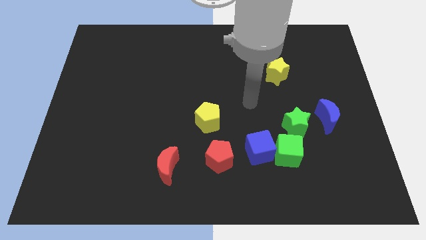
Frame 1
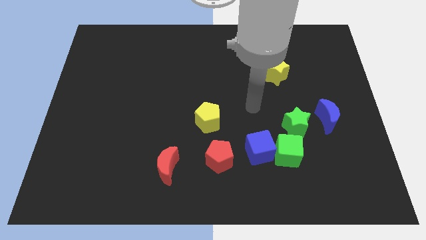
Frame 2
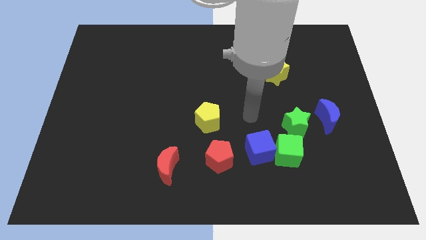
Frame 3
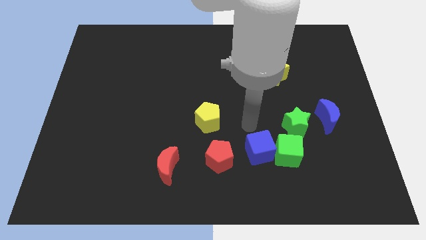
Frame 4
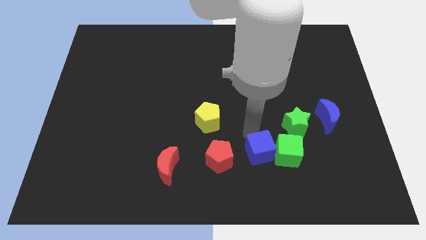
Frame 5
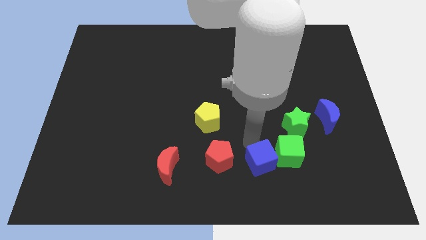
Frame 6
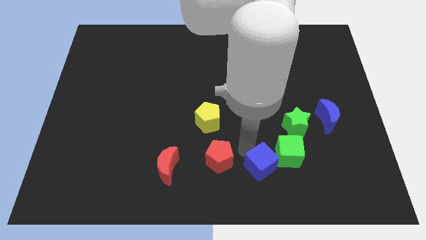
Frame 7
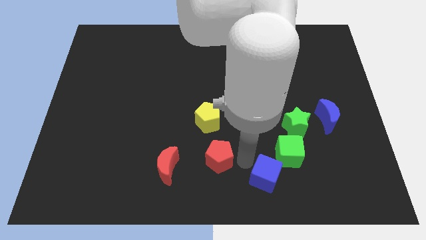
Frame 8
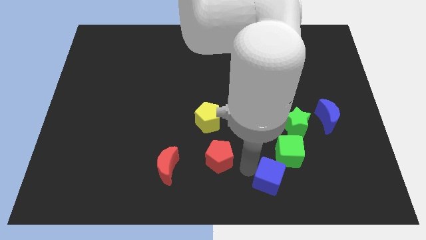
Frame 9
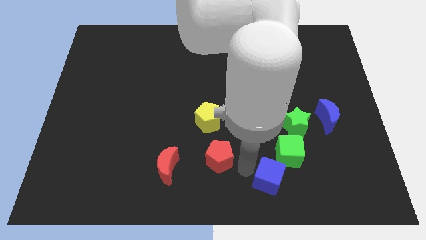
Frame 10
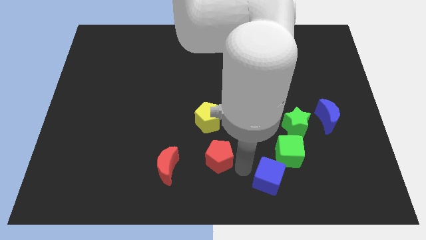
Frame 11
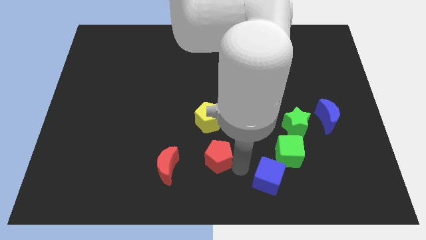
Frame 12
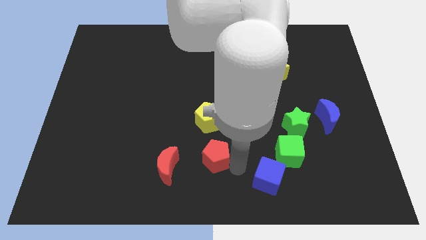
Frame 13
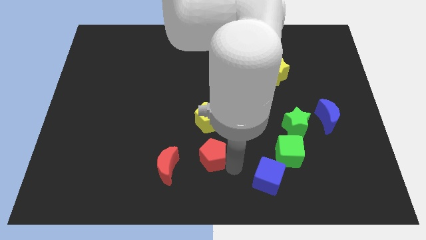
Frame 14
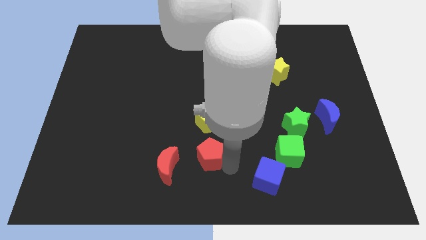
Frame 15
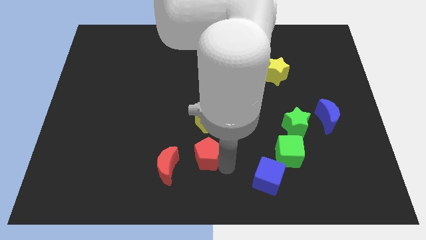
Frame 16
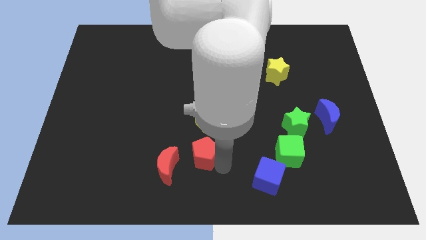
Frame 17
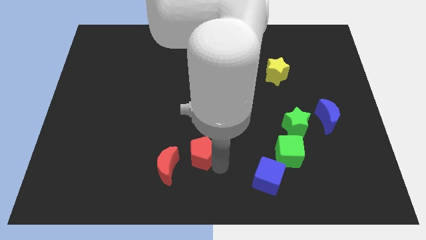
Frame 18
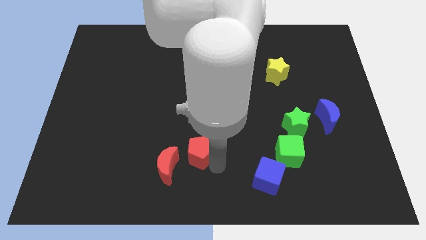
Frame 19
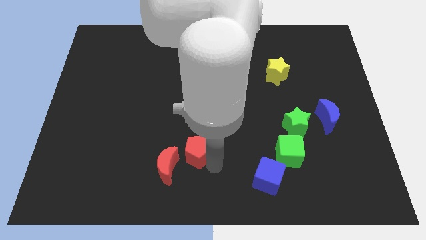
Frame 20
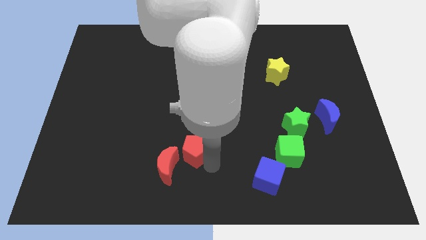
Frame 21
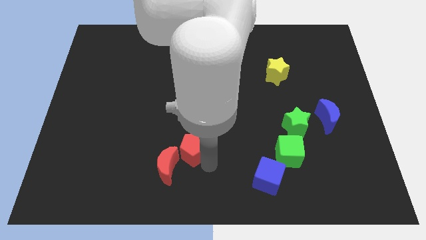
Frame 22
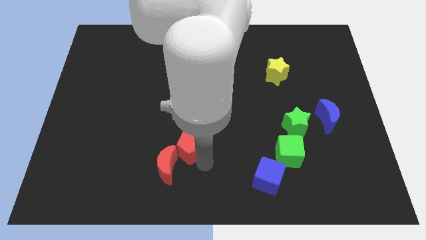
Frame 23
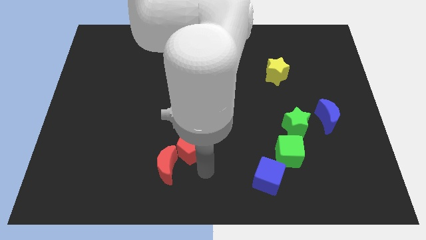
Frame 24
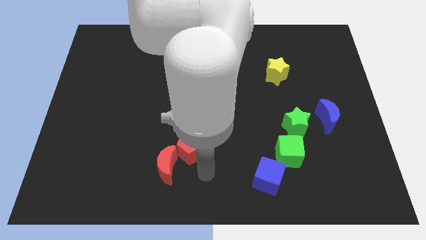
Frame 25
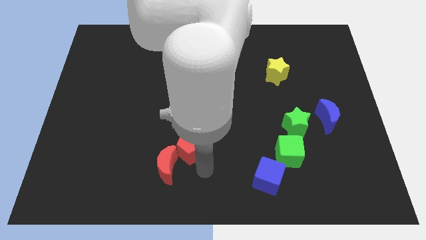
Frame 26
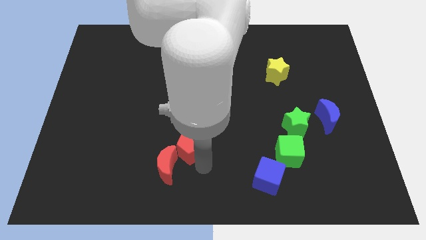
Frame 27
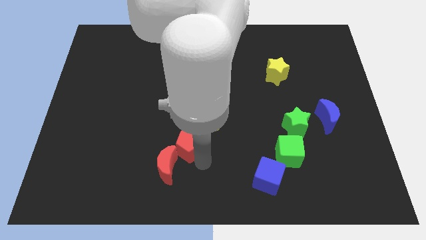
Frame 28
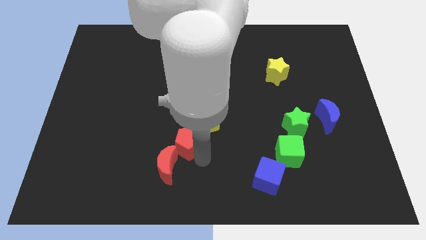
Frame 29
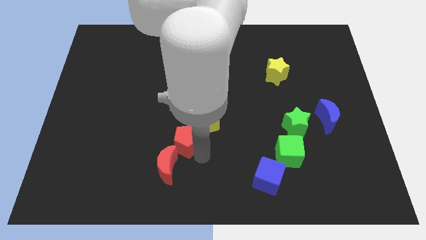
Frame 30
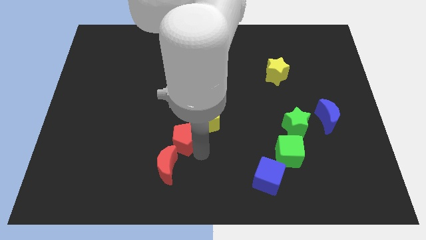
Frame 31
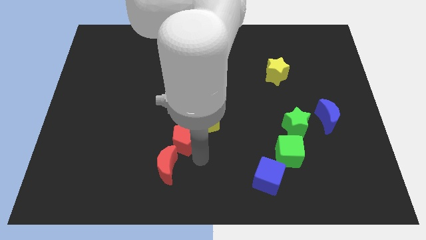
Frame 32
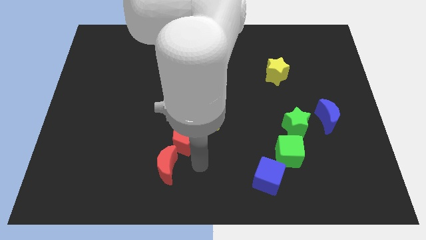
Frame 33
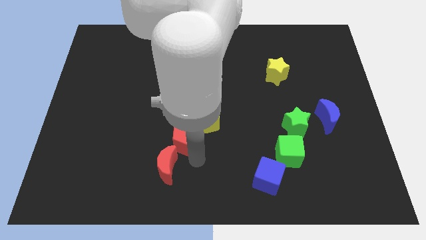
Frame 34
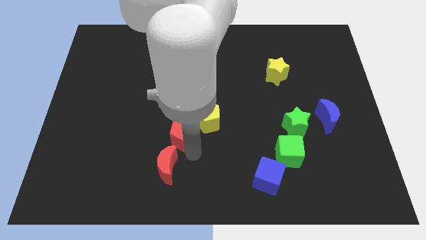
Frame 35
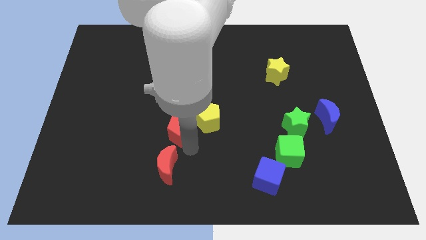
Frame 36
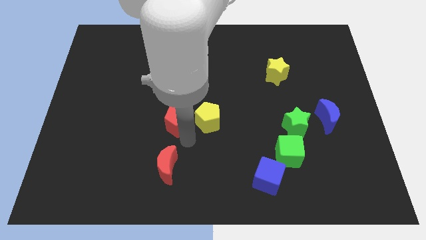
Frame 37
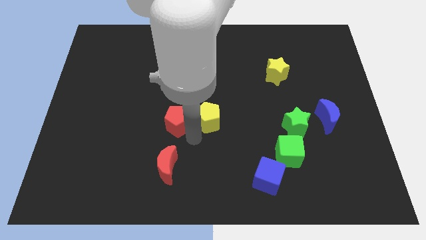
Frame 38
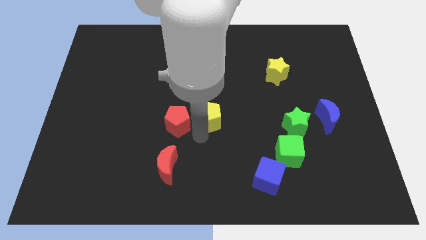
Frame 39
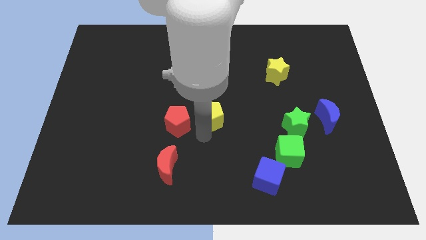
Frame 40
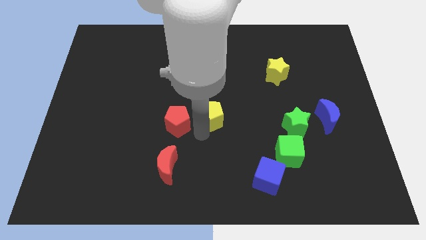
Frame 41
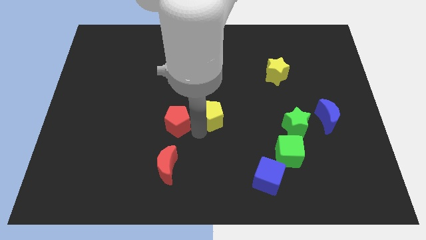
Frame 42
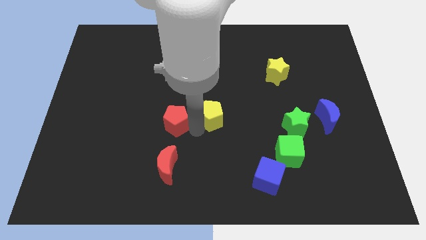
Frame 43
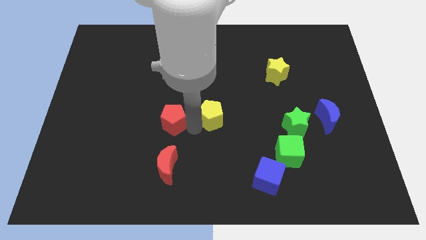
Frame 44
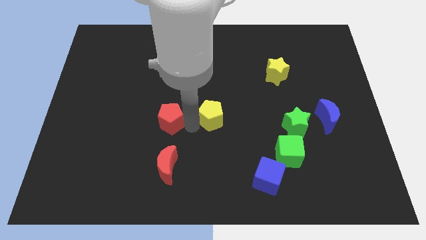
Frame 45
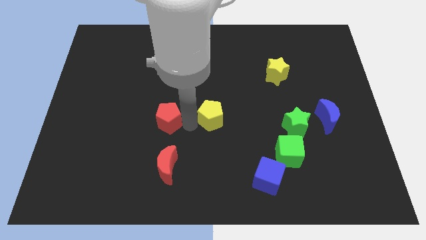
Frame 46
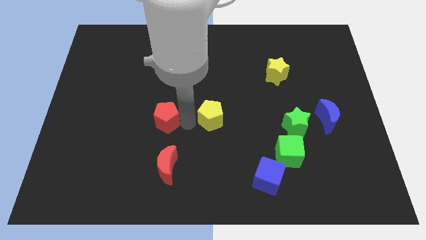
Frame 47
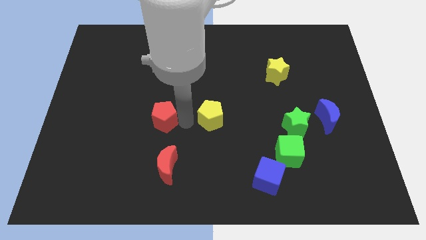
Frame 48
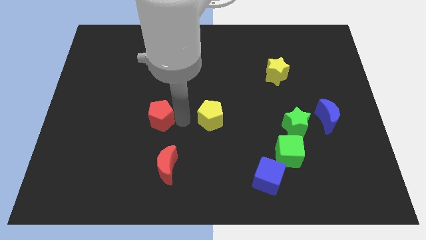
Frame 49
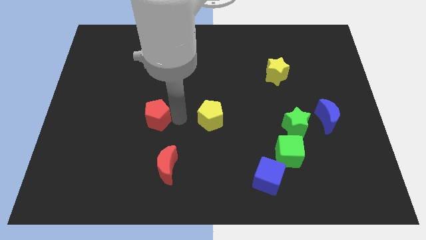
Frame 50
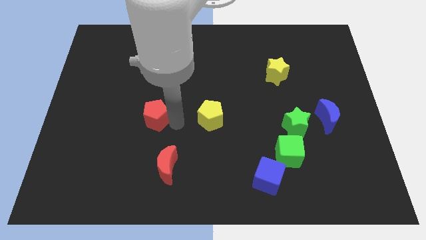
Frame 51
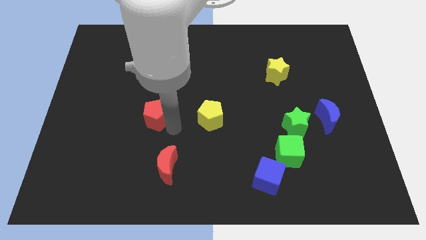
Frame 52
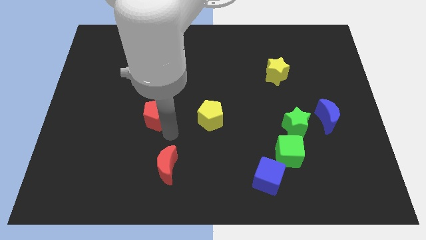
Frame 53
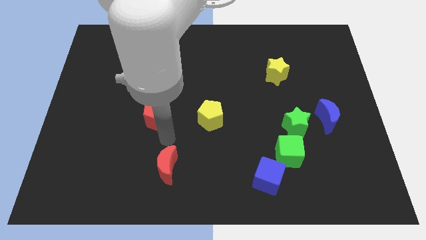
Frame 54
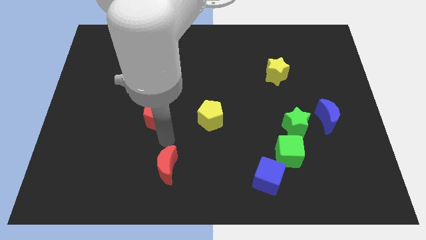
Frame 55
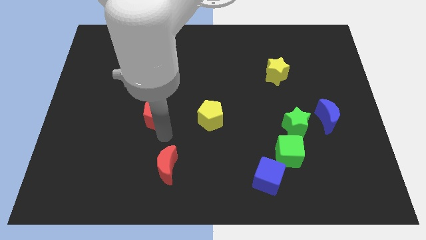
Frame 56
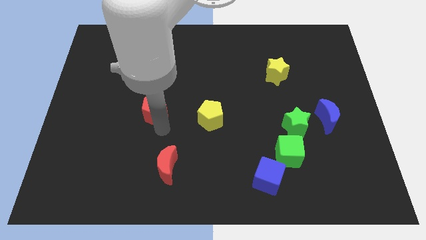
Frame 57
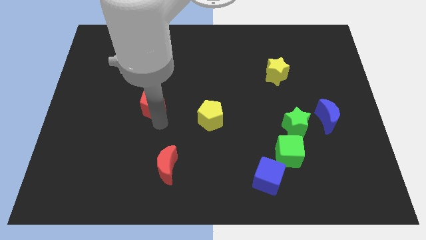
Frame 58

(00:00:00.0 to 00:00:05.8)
push the red pentagon up and then left

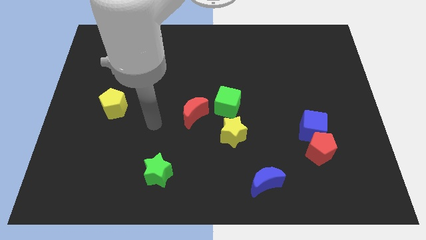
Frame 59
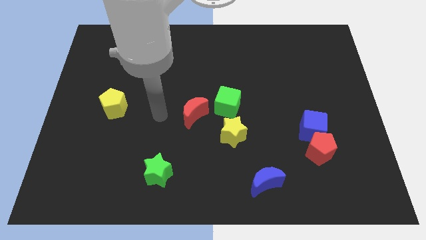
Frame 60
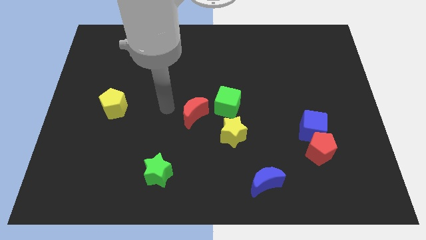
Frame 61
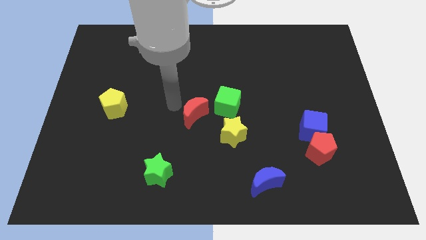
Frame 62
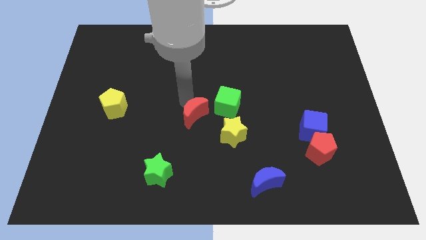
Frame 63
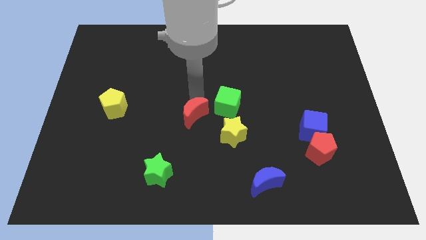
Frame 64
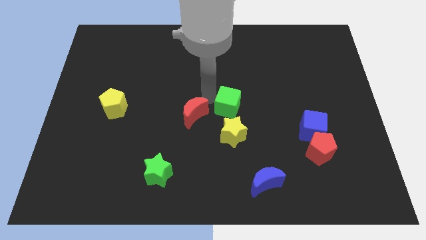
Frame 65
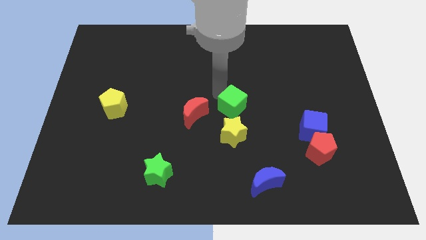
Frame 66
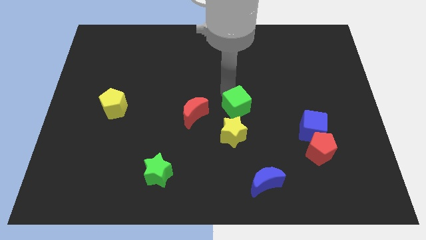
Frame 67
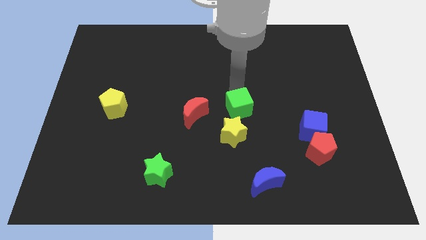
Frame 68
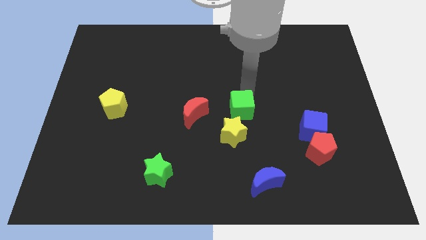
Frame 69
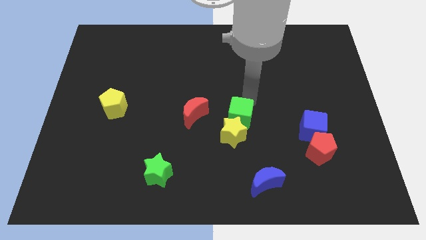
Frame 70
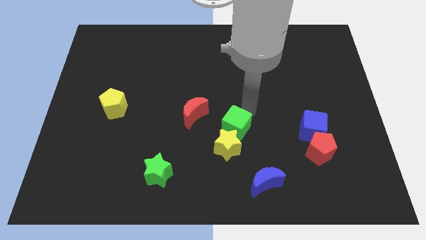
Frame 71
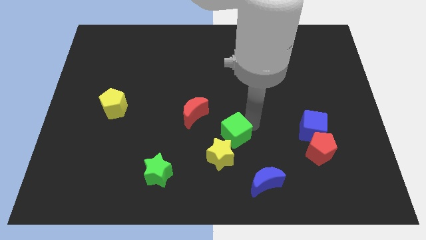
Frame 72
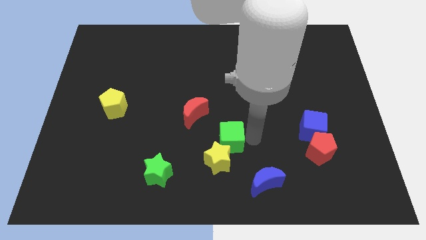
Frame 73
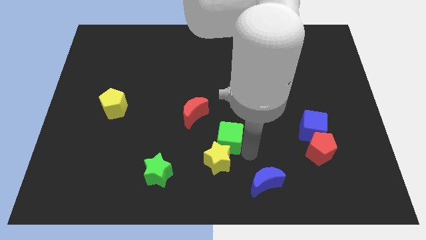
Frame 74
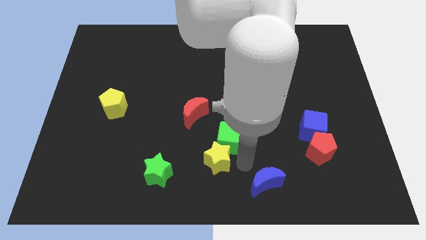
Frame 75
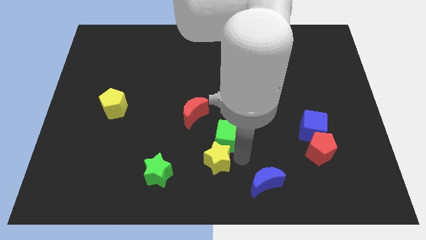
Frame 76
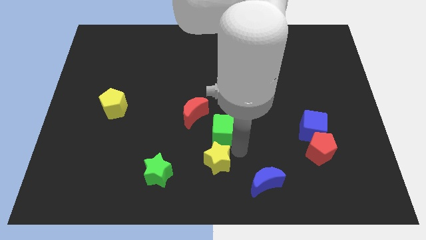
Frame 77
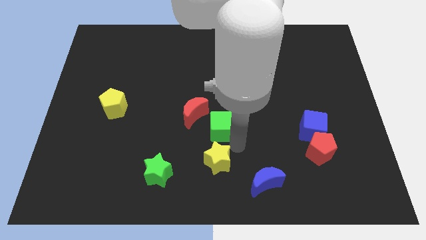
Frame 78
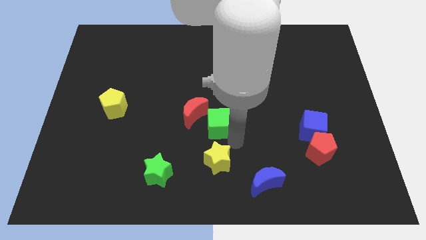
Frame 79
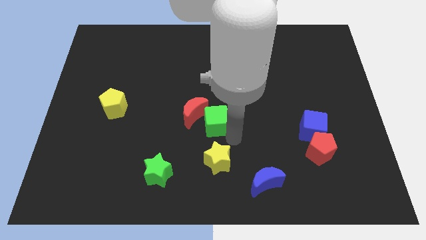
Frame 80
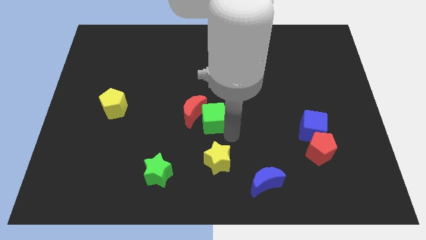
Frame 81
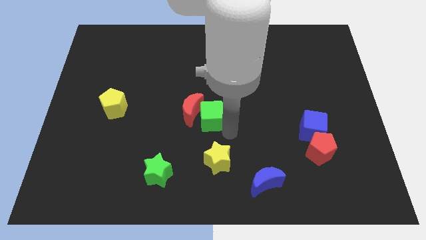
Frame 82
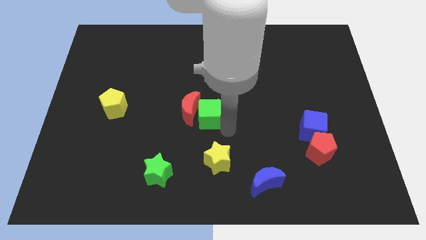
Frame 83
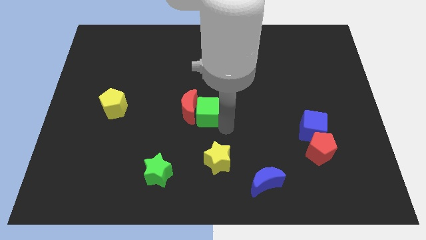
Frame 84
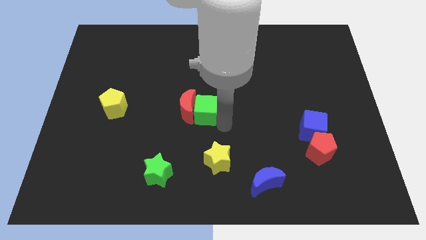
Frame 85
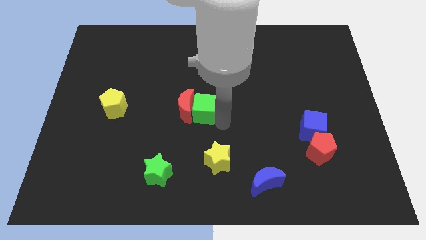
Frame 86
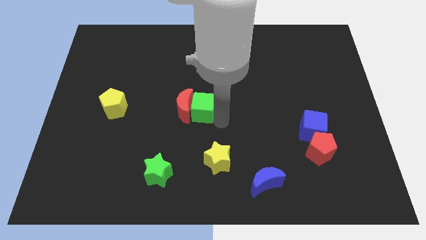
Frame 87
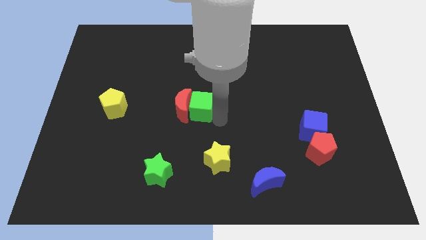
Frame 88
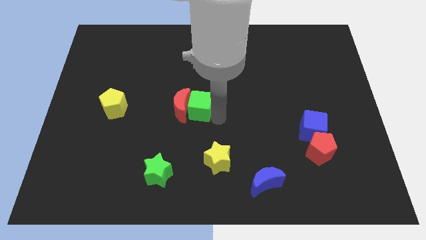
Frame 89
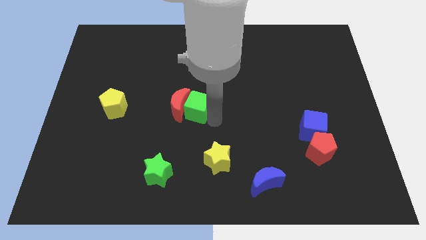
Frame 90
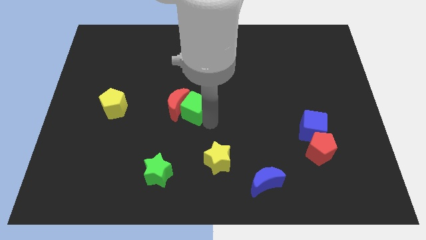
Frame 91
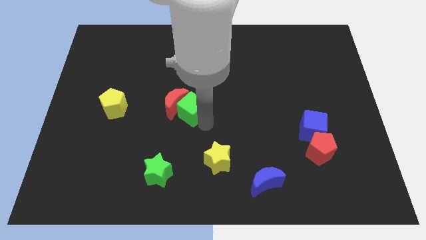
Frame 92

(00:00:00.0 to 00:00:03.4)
move the green cube downwards and then to the left a little
